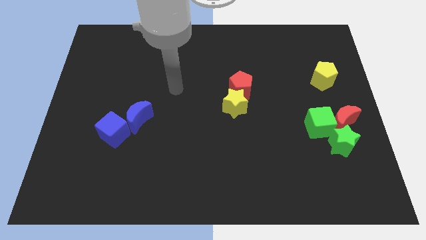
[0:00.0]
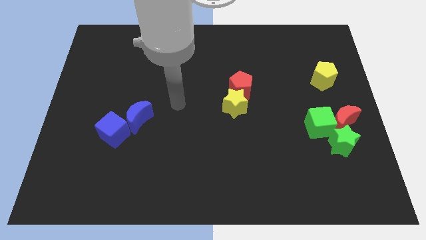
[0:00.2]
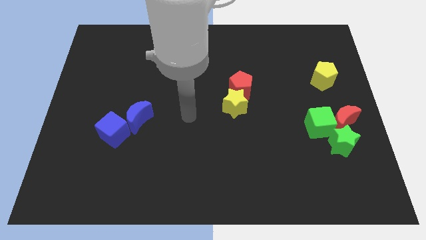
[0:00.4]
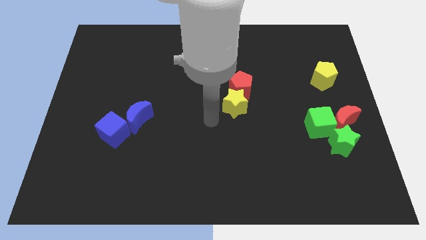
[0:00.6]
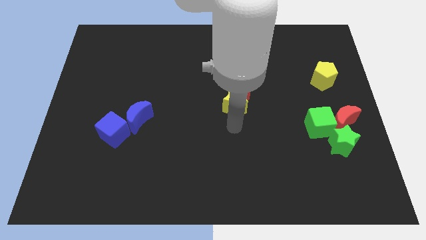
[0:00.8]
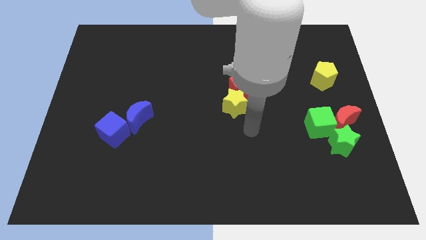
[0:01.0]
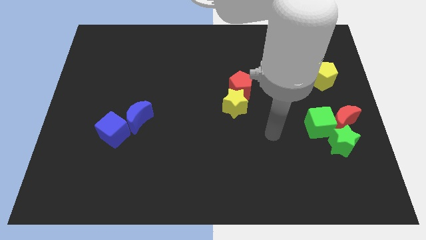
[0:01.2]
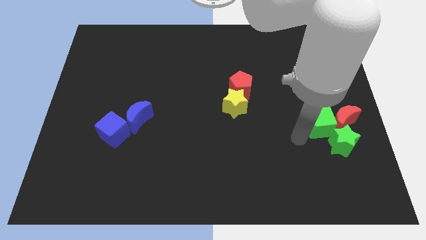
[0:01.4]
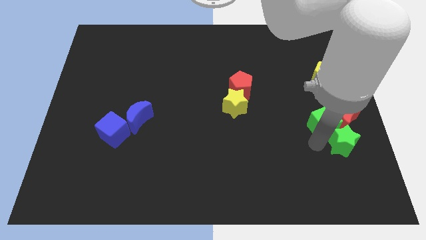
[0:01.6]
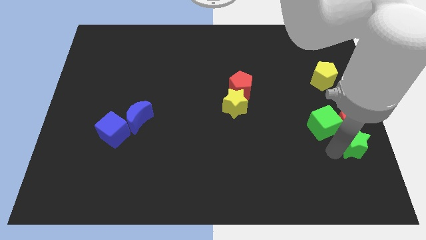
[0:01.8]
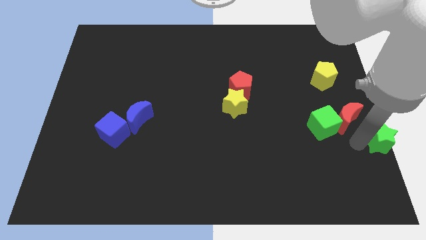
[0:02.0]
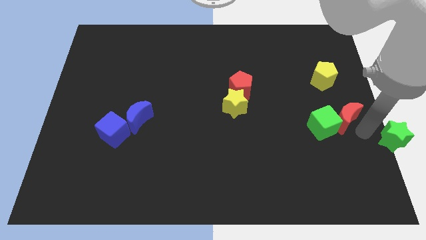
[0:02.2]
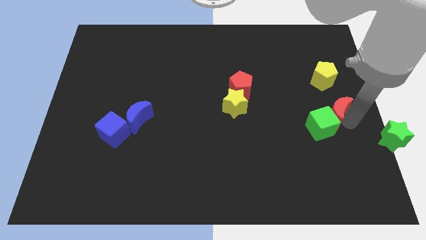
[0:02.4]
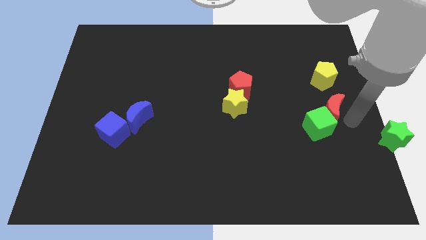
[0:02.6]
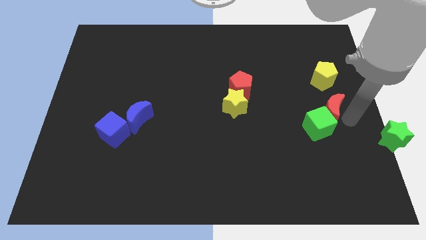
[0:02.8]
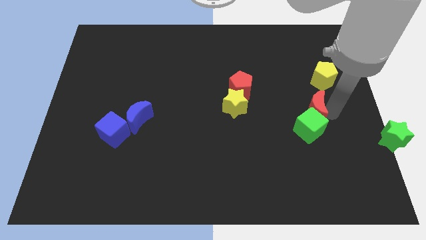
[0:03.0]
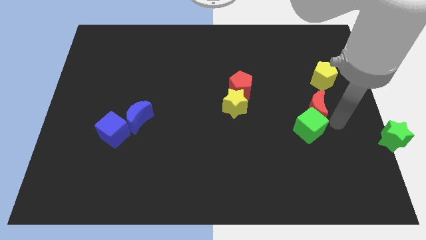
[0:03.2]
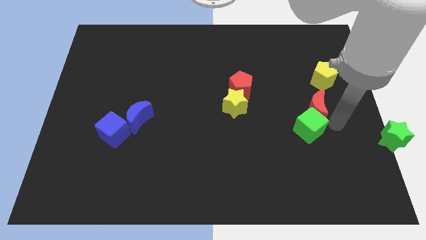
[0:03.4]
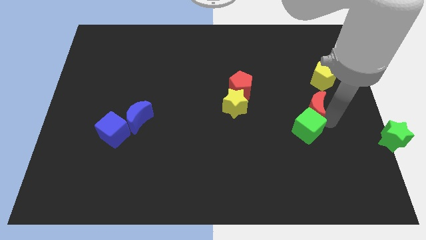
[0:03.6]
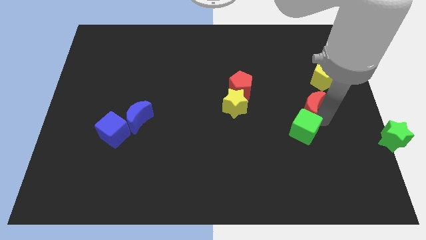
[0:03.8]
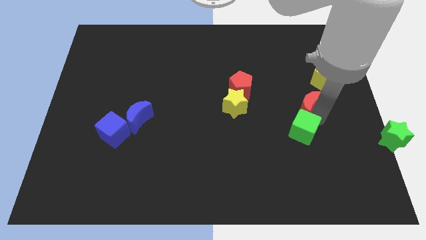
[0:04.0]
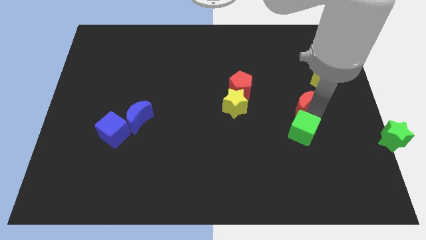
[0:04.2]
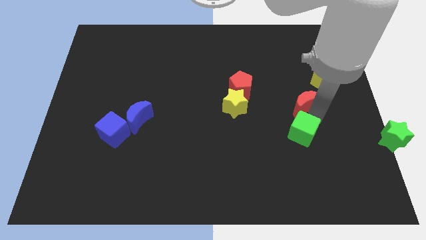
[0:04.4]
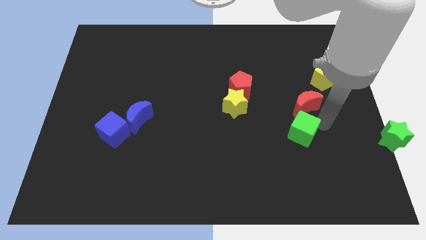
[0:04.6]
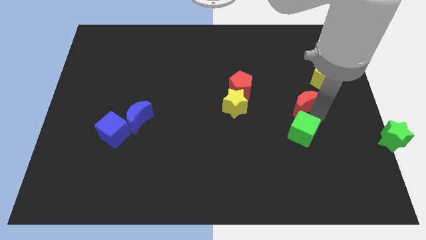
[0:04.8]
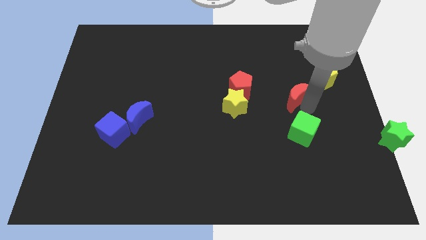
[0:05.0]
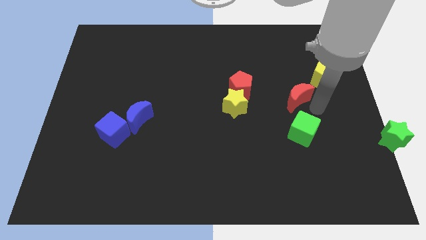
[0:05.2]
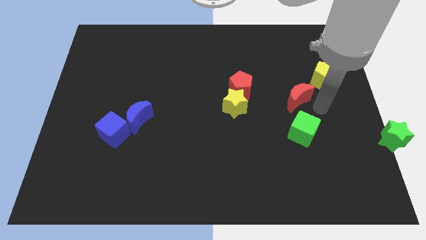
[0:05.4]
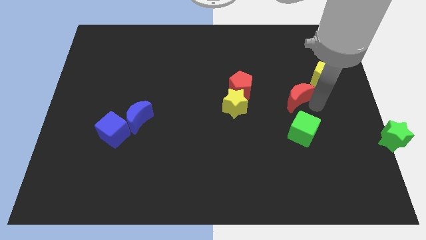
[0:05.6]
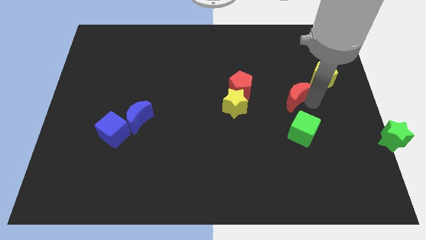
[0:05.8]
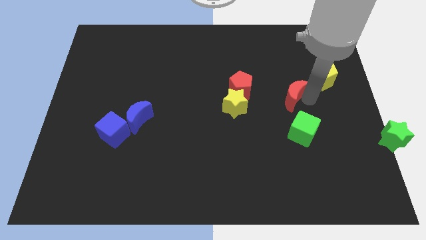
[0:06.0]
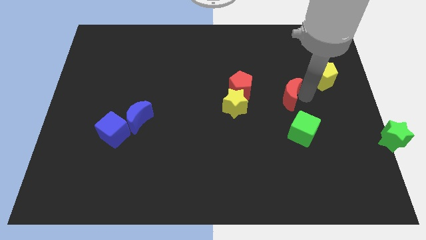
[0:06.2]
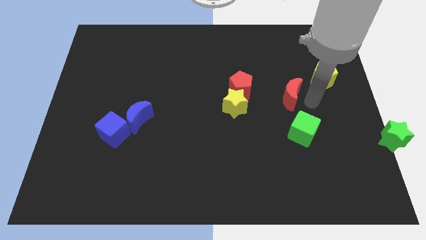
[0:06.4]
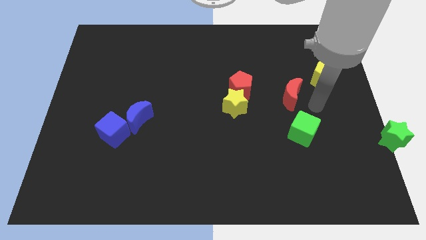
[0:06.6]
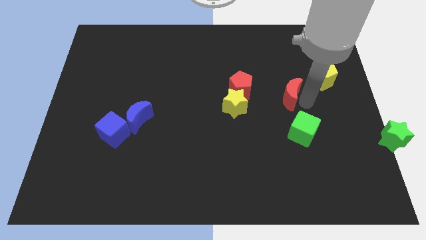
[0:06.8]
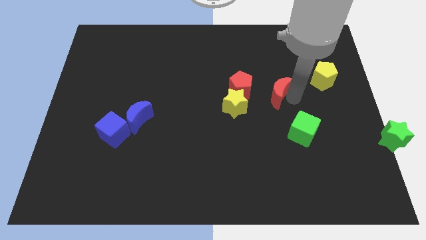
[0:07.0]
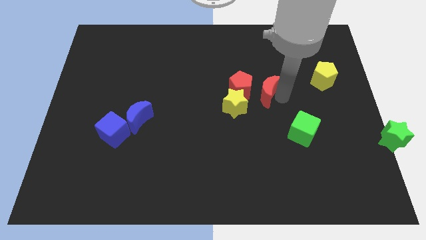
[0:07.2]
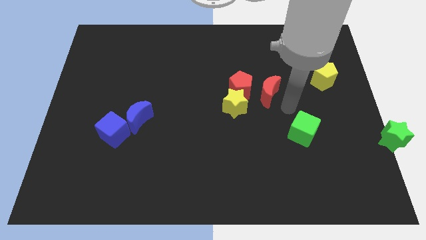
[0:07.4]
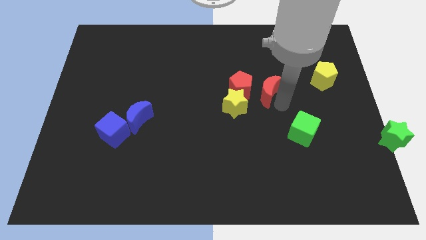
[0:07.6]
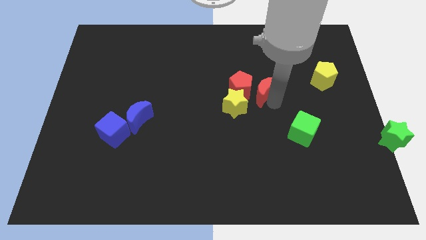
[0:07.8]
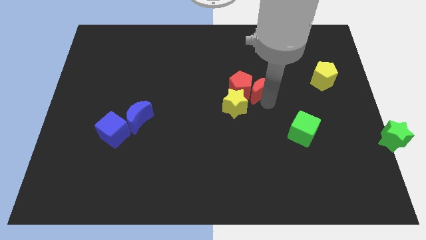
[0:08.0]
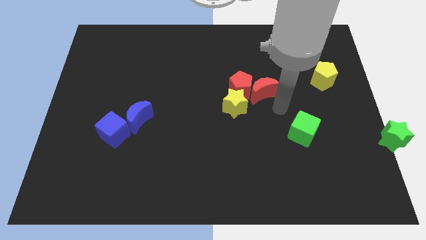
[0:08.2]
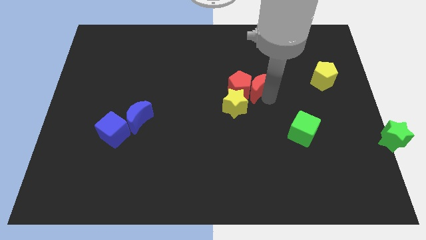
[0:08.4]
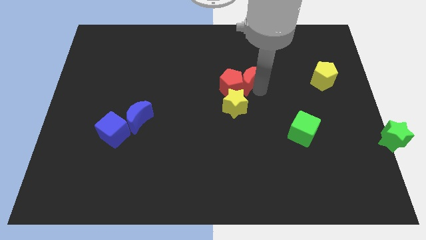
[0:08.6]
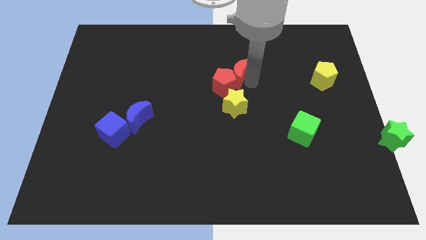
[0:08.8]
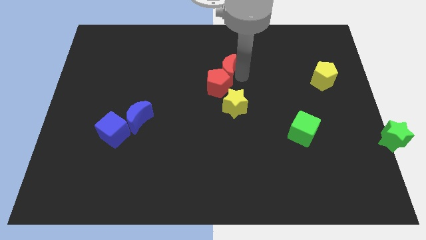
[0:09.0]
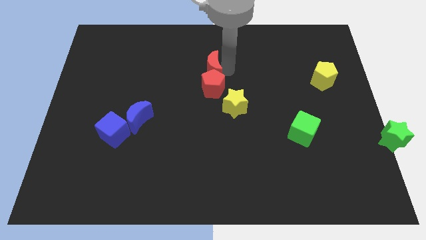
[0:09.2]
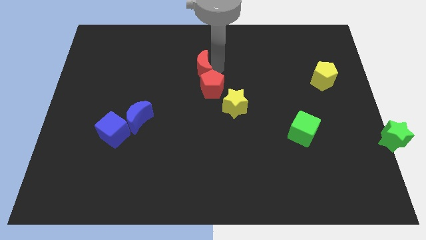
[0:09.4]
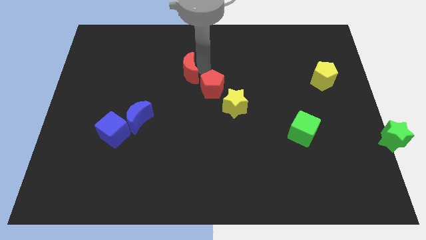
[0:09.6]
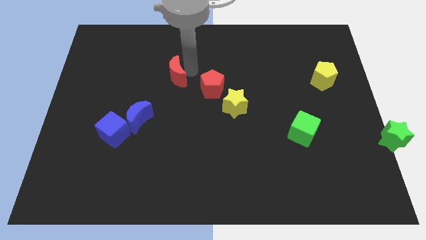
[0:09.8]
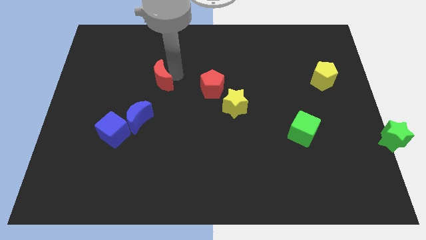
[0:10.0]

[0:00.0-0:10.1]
move the red moon to the top of the blue moon

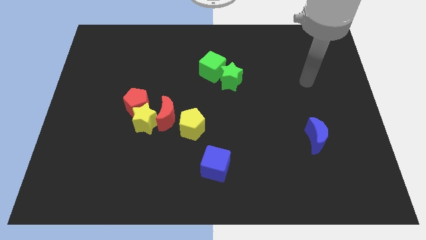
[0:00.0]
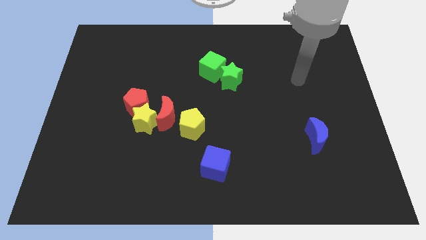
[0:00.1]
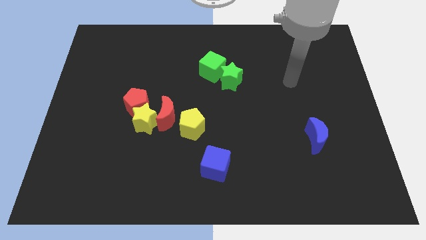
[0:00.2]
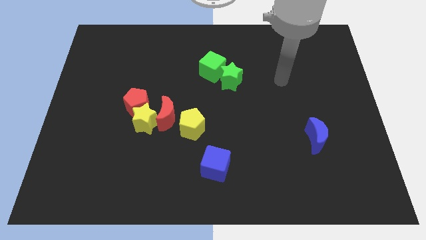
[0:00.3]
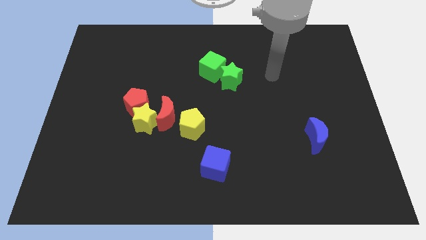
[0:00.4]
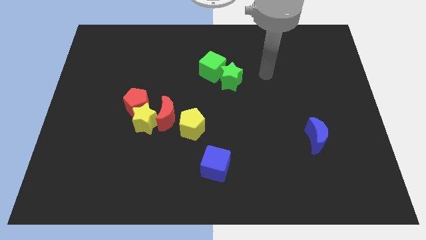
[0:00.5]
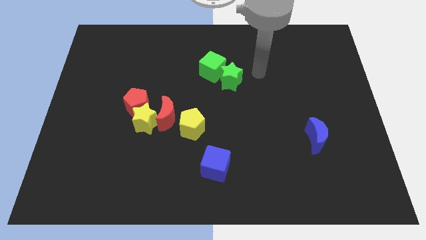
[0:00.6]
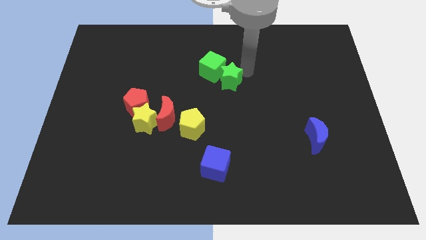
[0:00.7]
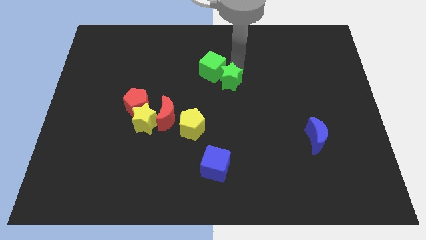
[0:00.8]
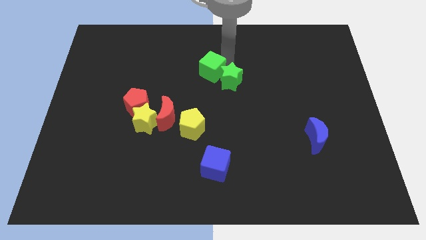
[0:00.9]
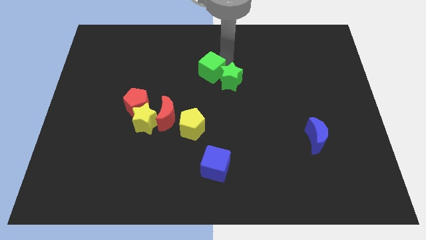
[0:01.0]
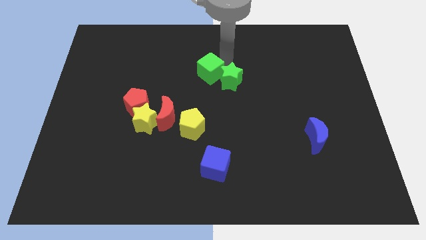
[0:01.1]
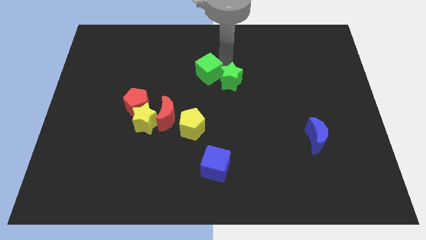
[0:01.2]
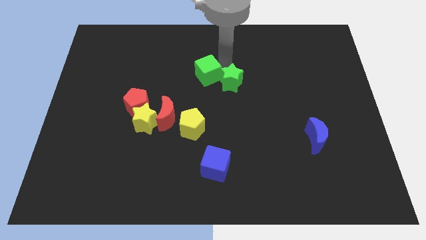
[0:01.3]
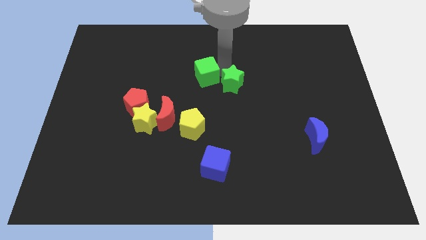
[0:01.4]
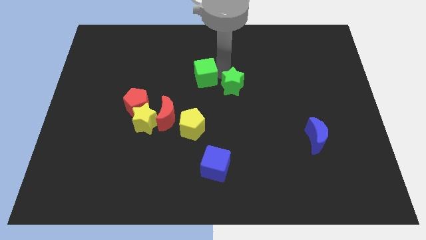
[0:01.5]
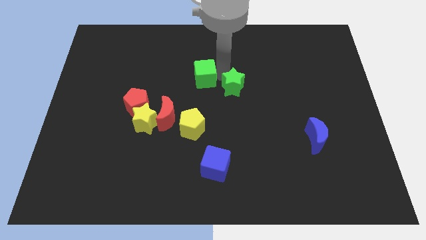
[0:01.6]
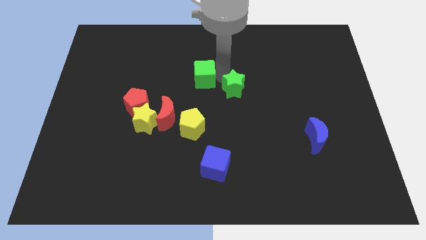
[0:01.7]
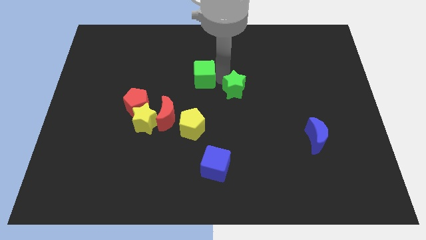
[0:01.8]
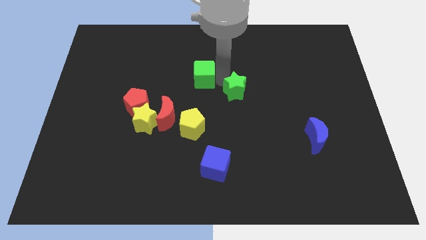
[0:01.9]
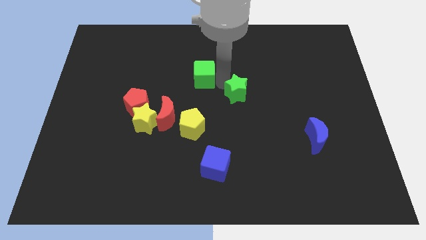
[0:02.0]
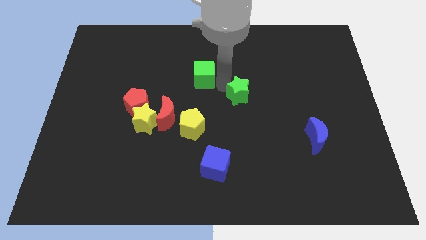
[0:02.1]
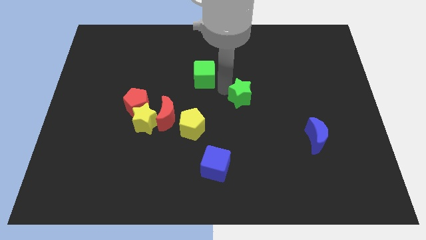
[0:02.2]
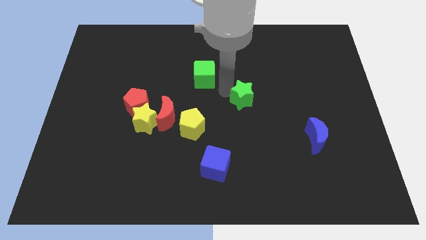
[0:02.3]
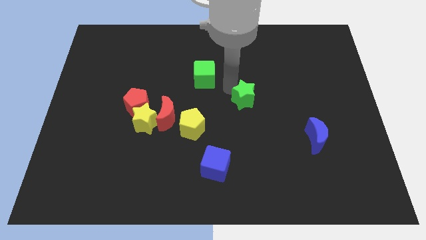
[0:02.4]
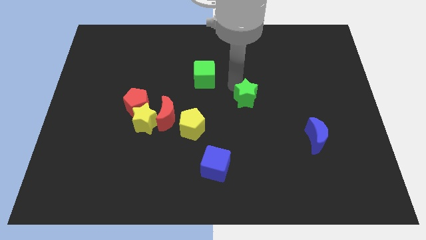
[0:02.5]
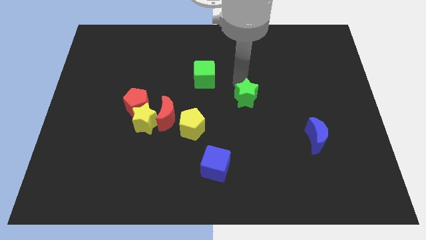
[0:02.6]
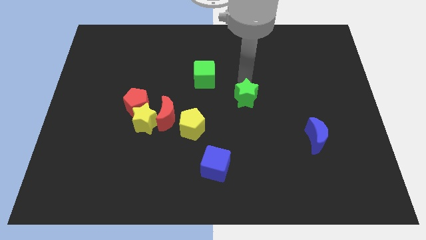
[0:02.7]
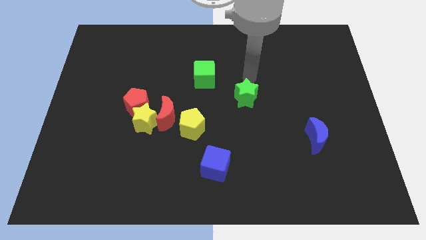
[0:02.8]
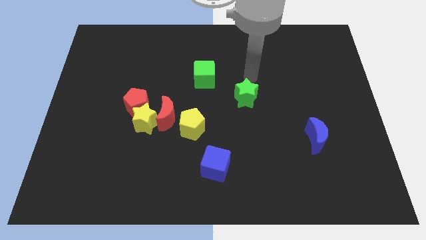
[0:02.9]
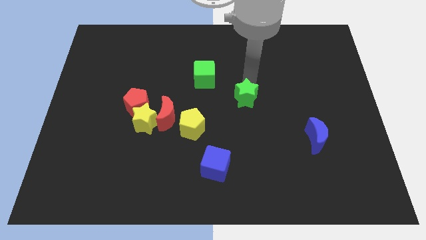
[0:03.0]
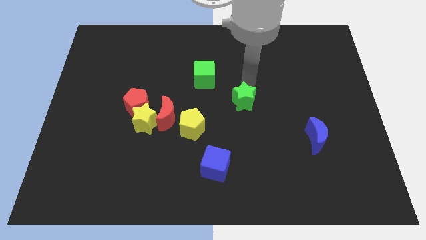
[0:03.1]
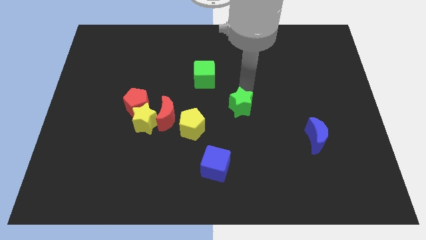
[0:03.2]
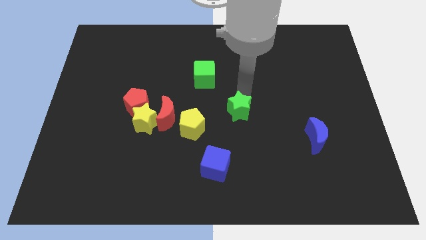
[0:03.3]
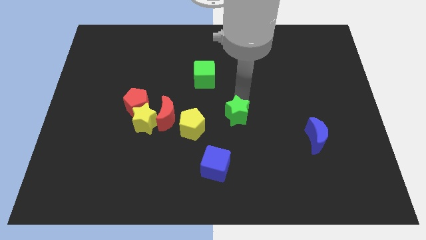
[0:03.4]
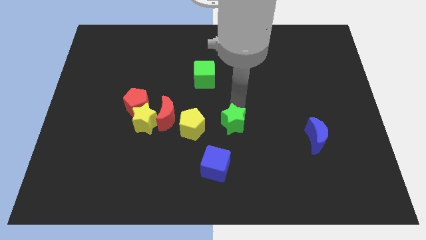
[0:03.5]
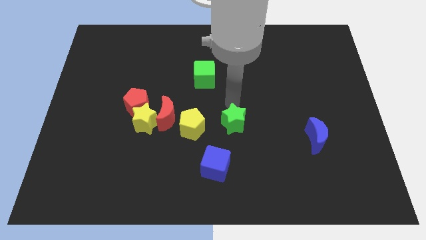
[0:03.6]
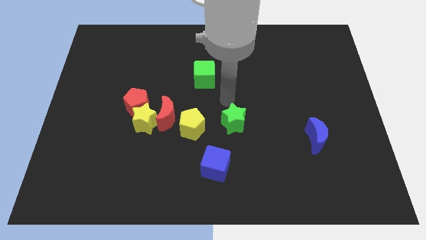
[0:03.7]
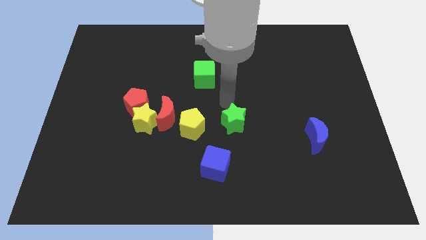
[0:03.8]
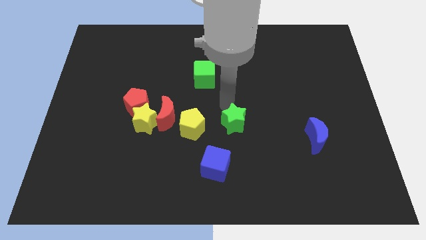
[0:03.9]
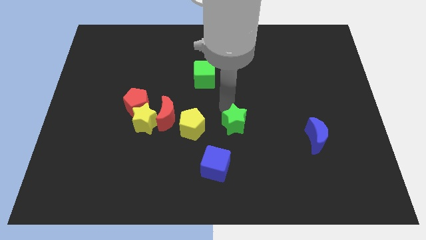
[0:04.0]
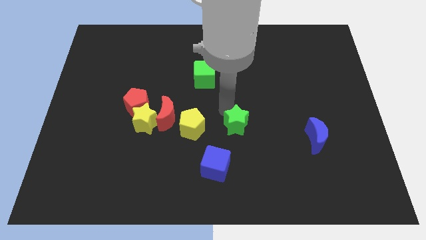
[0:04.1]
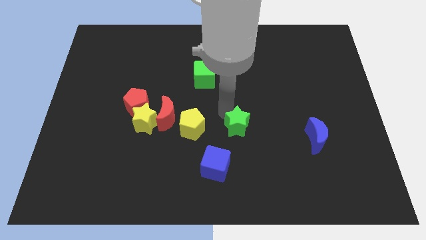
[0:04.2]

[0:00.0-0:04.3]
put the green star to the top right side of the blue cube
